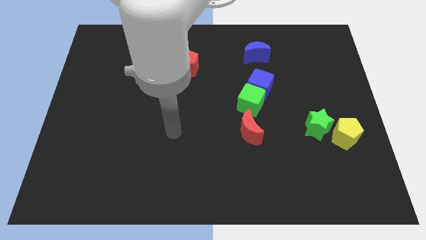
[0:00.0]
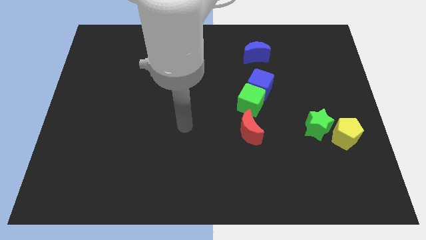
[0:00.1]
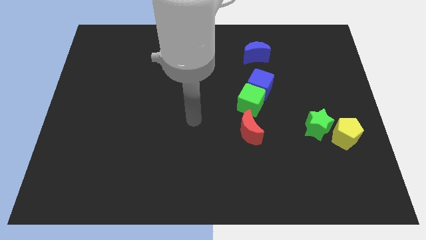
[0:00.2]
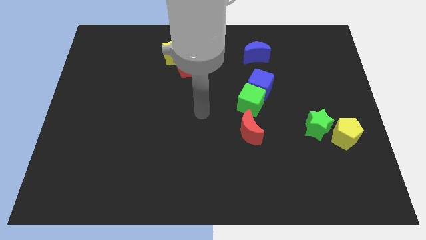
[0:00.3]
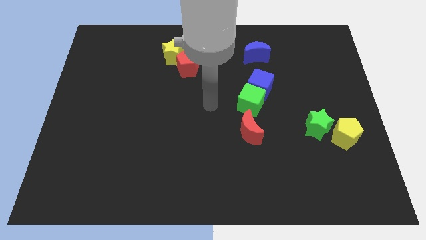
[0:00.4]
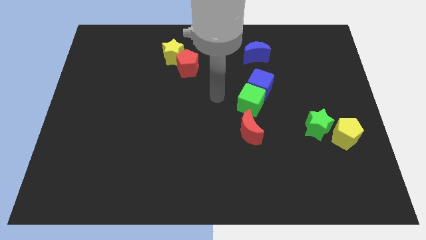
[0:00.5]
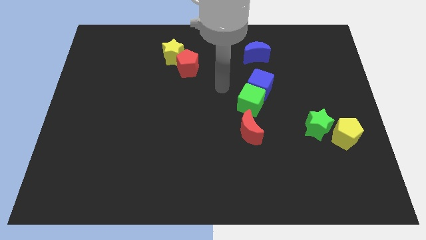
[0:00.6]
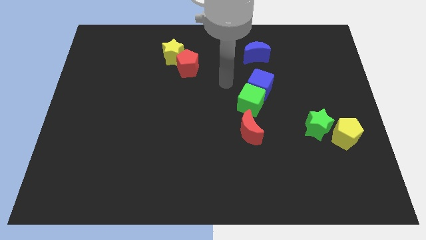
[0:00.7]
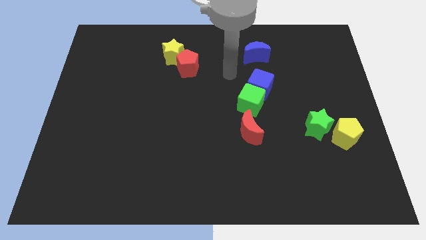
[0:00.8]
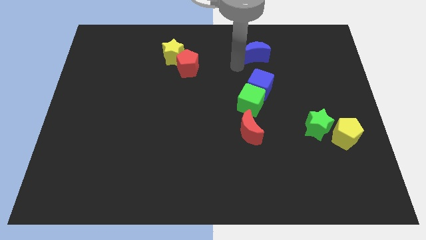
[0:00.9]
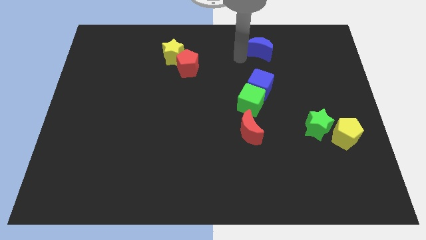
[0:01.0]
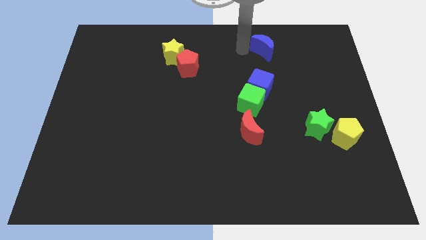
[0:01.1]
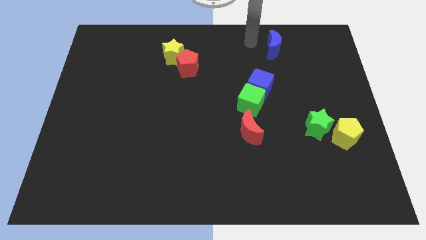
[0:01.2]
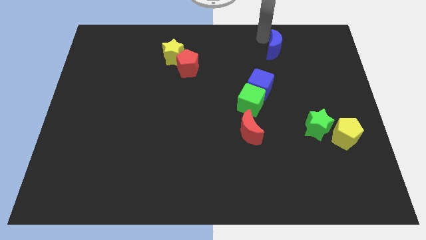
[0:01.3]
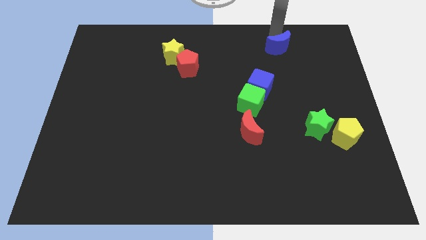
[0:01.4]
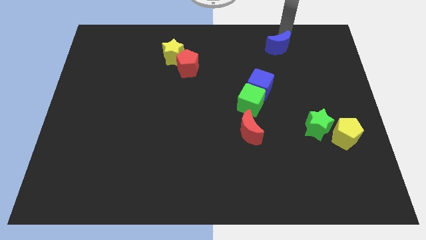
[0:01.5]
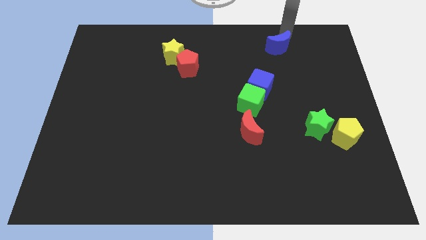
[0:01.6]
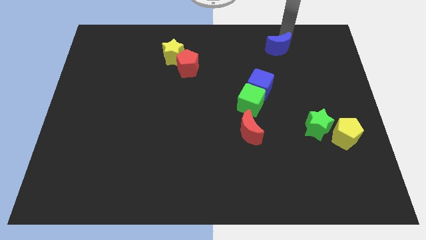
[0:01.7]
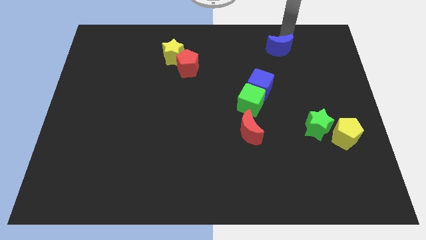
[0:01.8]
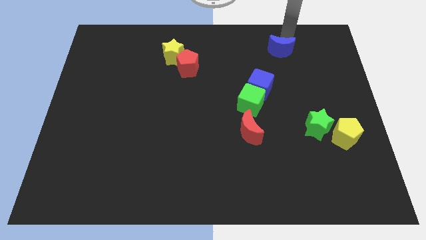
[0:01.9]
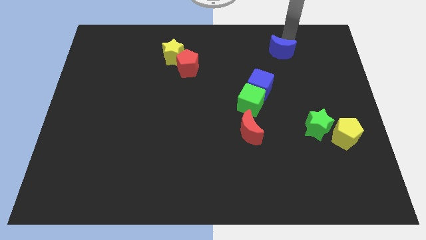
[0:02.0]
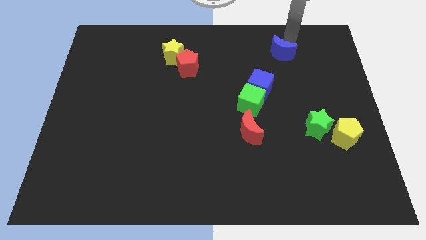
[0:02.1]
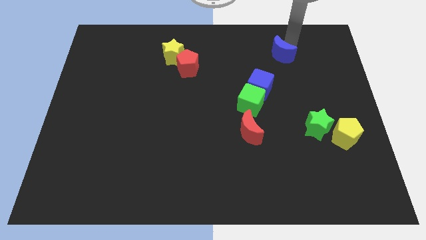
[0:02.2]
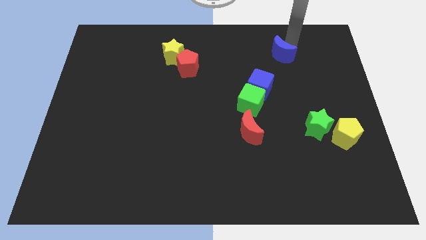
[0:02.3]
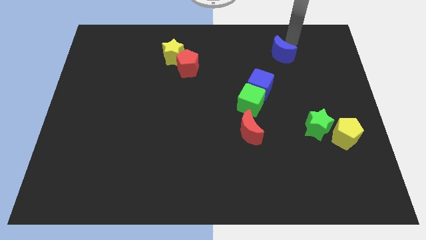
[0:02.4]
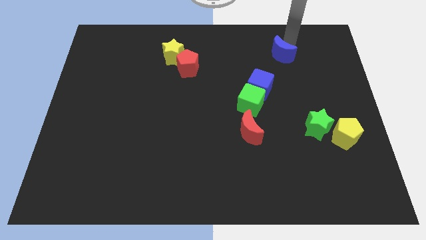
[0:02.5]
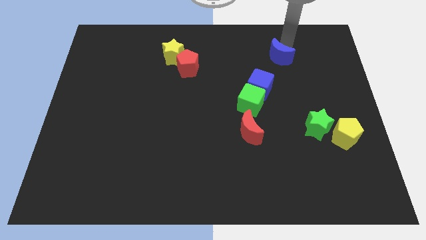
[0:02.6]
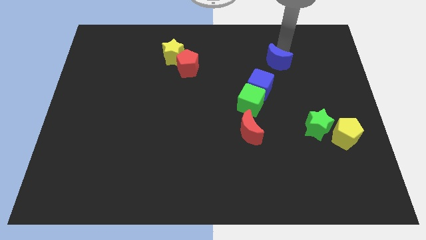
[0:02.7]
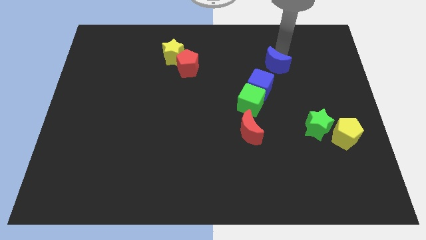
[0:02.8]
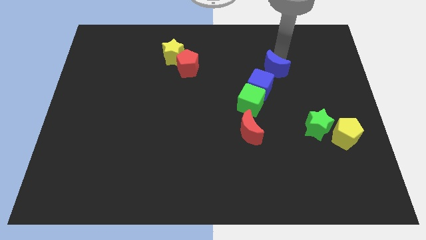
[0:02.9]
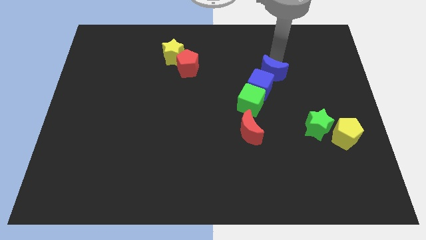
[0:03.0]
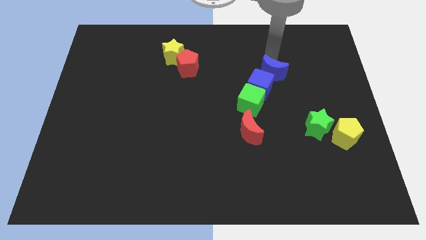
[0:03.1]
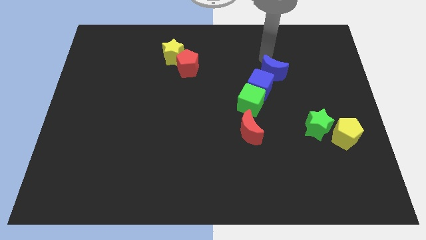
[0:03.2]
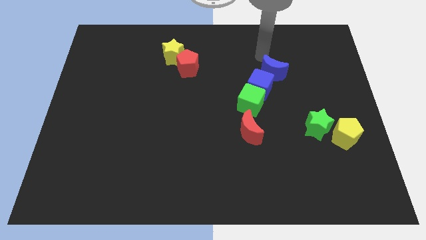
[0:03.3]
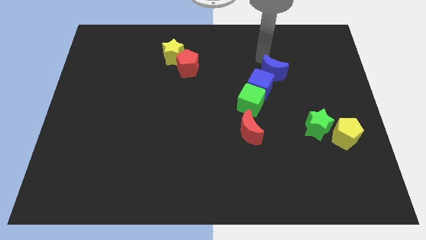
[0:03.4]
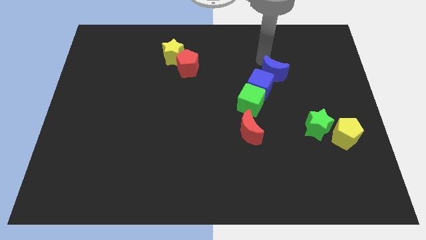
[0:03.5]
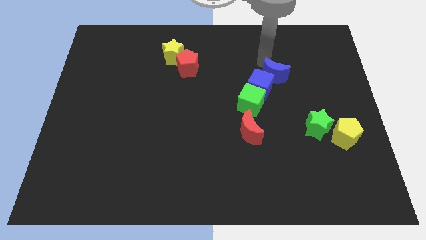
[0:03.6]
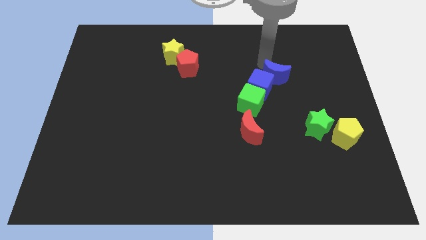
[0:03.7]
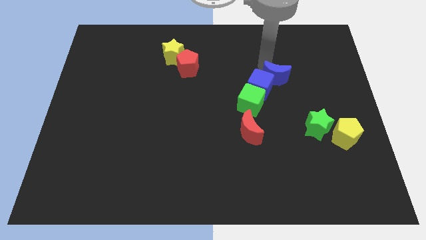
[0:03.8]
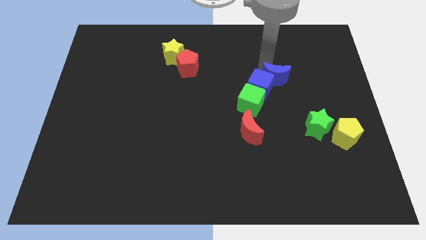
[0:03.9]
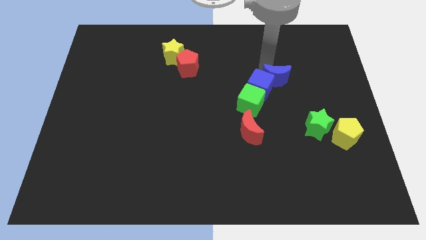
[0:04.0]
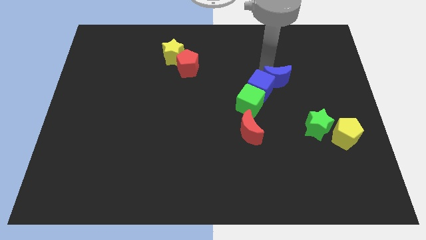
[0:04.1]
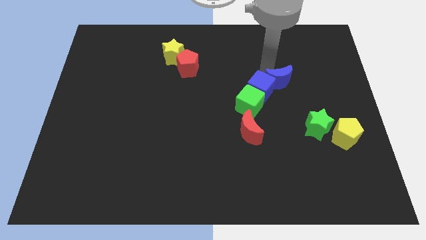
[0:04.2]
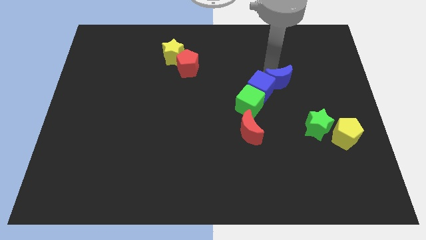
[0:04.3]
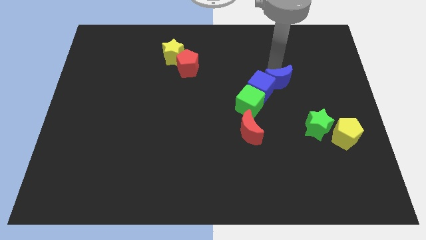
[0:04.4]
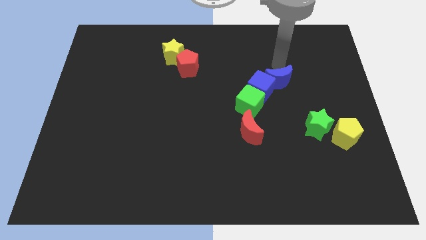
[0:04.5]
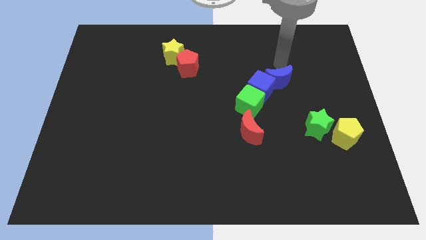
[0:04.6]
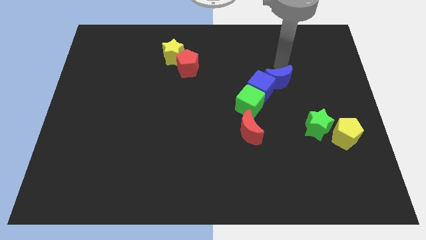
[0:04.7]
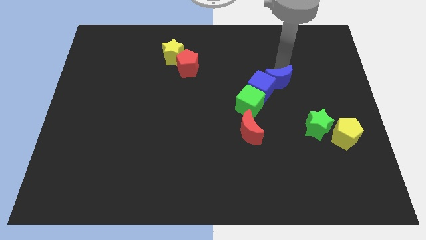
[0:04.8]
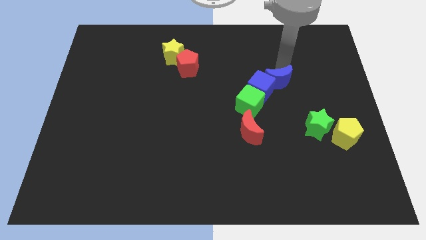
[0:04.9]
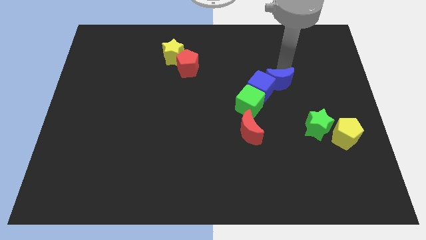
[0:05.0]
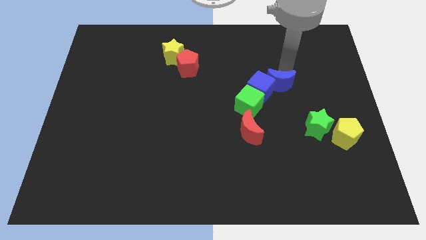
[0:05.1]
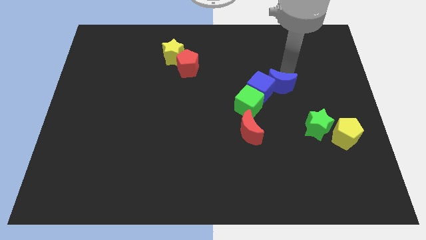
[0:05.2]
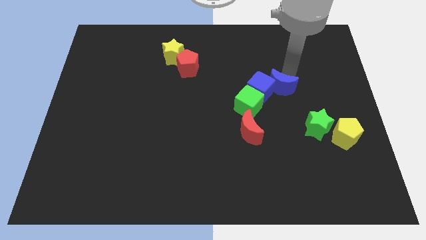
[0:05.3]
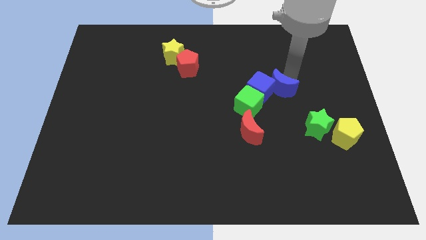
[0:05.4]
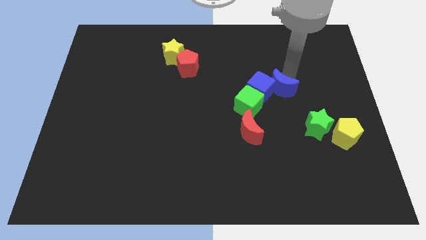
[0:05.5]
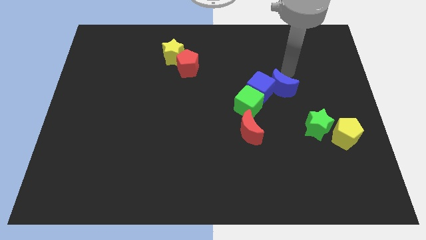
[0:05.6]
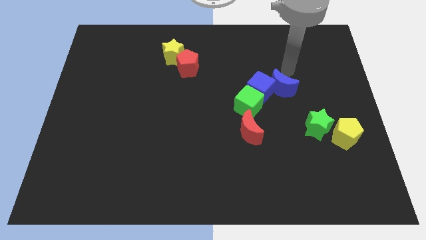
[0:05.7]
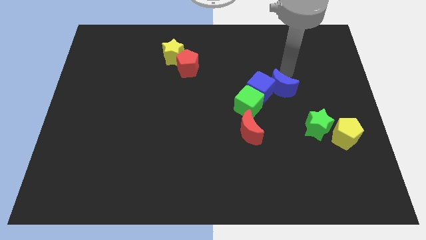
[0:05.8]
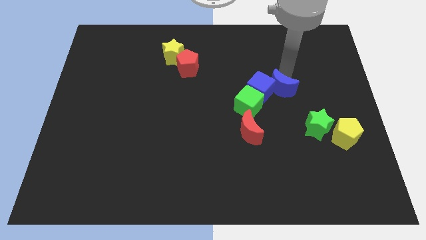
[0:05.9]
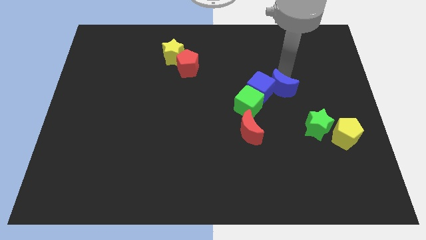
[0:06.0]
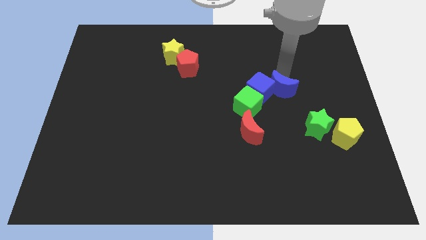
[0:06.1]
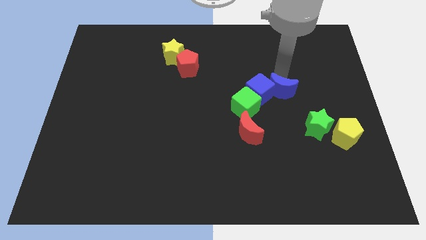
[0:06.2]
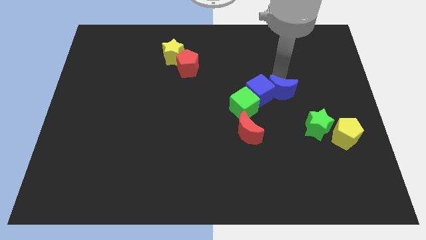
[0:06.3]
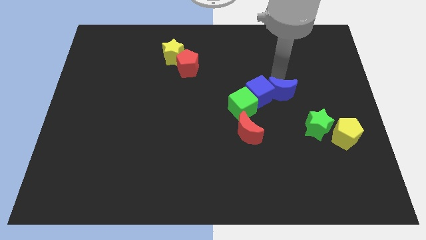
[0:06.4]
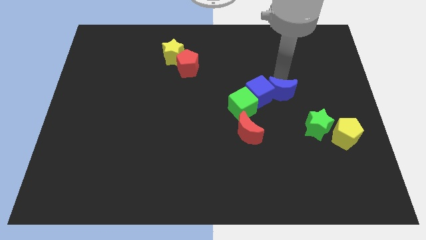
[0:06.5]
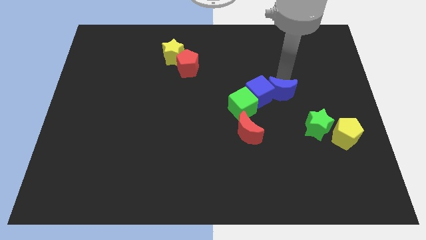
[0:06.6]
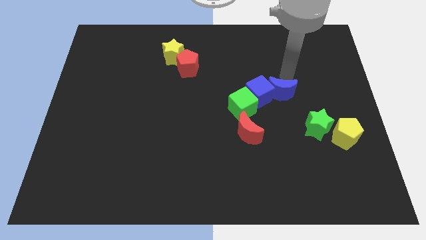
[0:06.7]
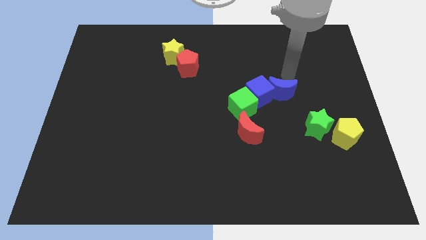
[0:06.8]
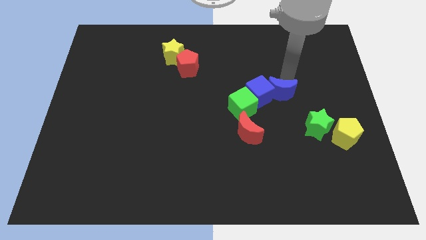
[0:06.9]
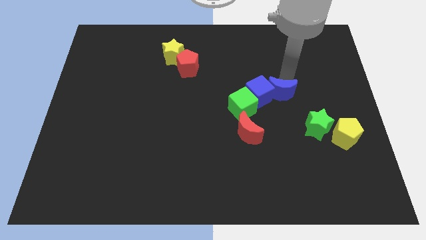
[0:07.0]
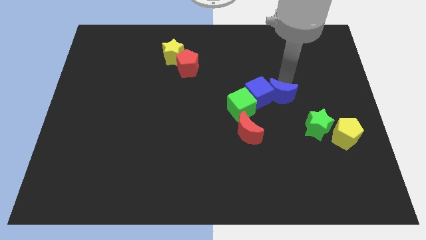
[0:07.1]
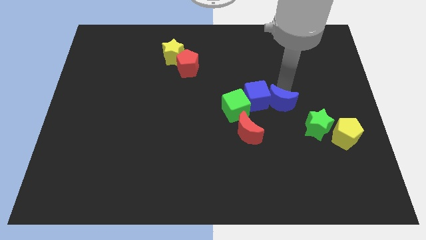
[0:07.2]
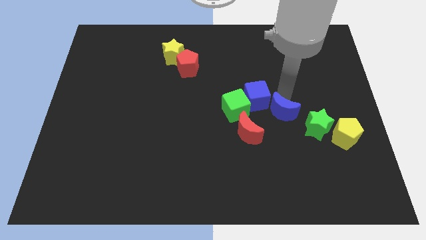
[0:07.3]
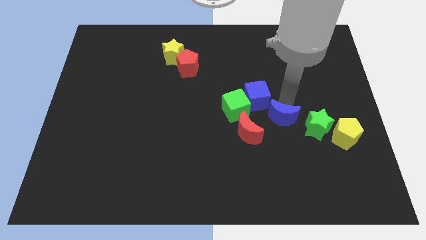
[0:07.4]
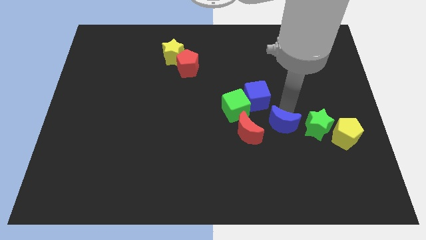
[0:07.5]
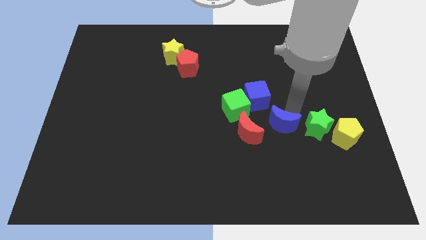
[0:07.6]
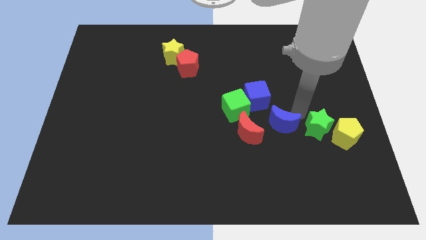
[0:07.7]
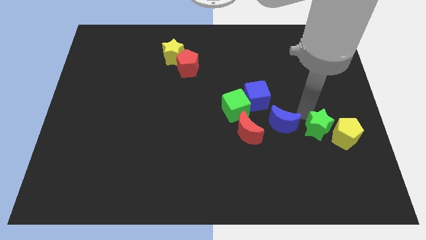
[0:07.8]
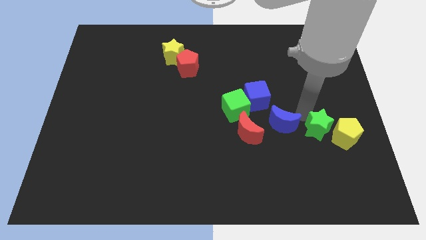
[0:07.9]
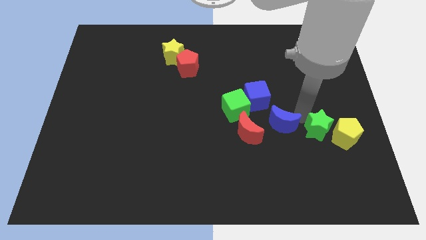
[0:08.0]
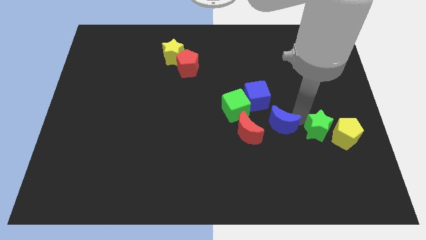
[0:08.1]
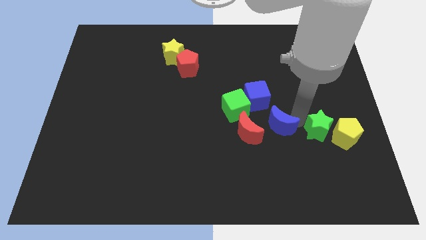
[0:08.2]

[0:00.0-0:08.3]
slide the blue moon to the bottom side of the blue cube
